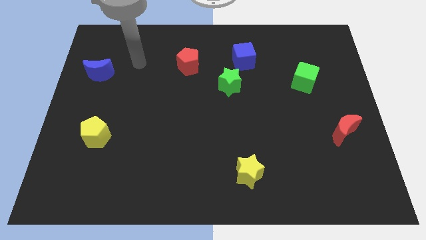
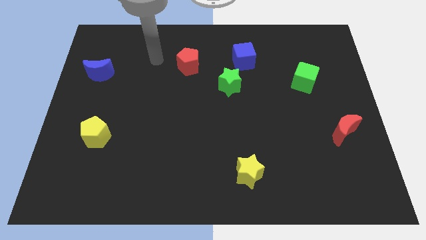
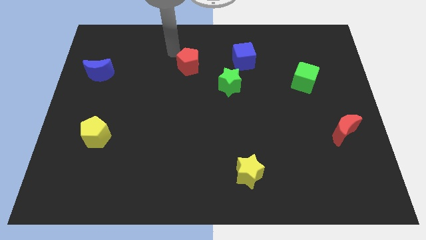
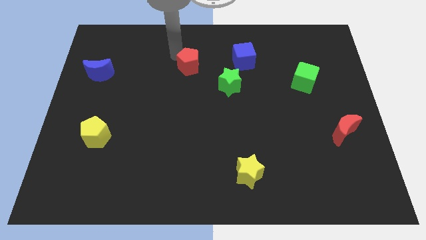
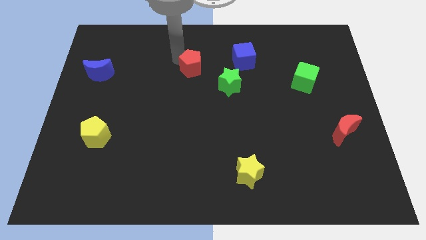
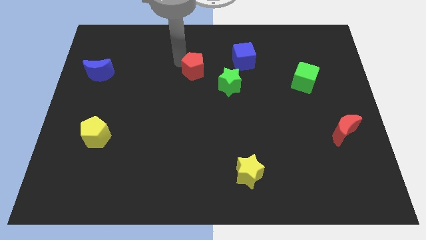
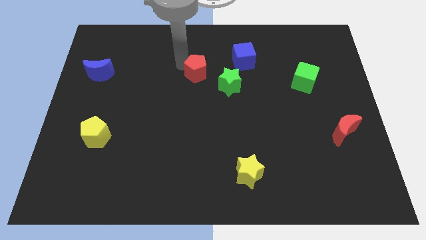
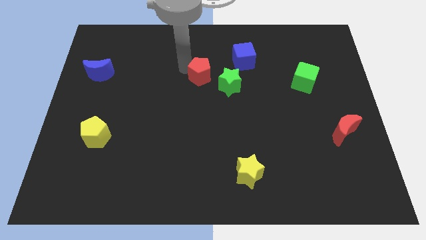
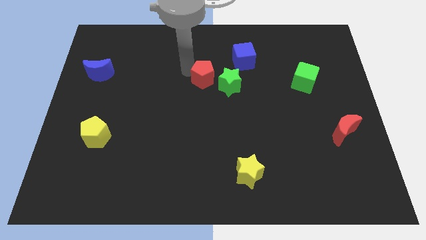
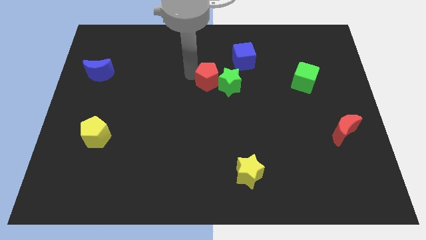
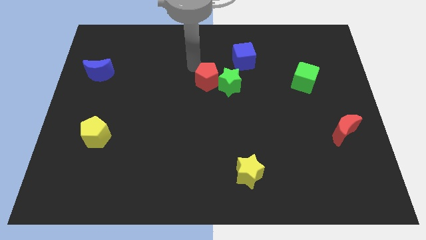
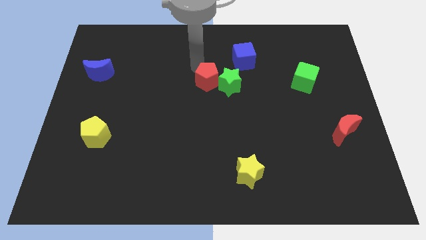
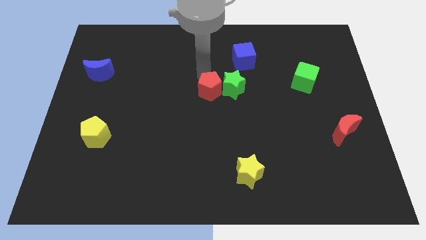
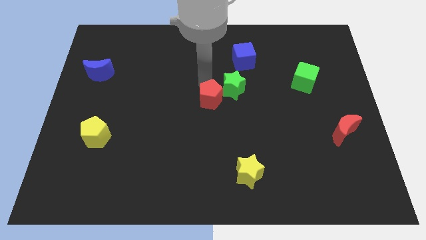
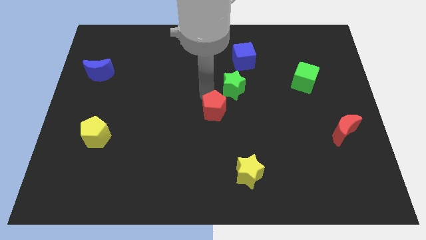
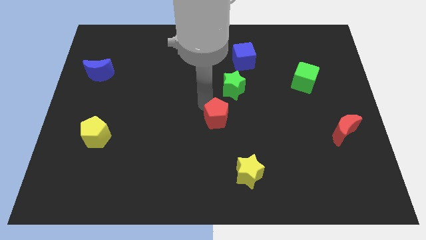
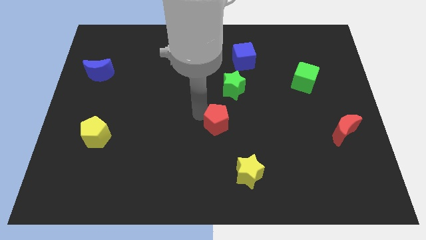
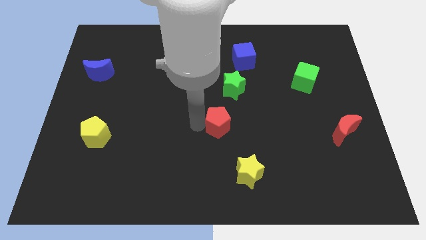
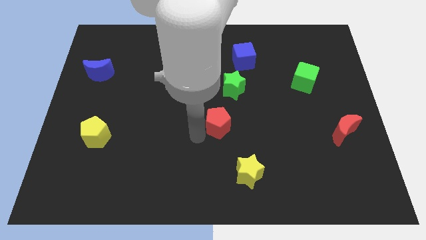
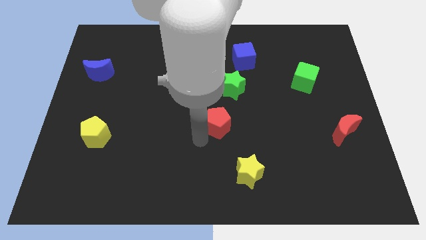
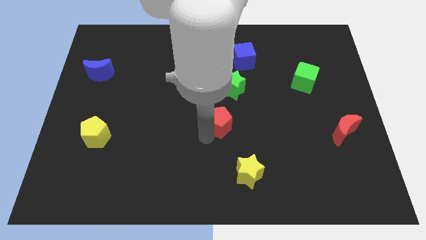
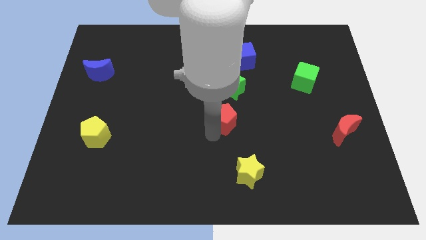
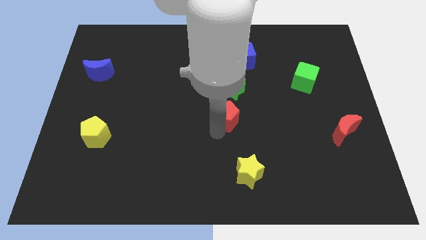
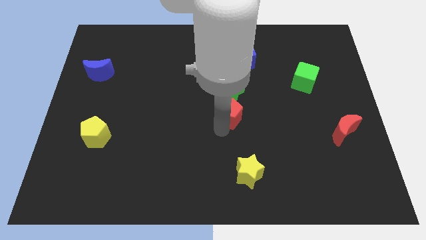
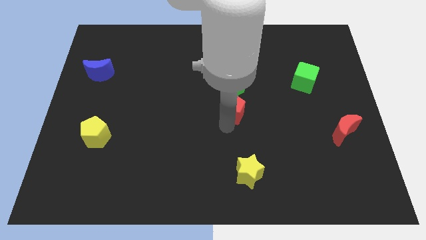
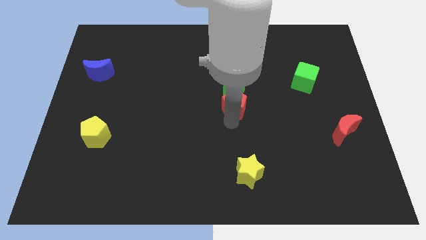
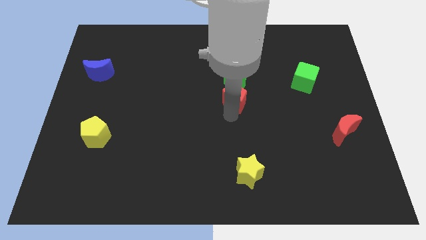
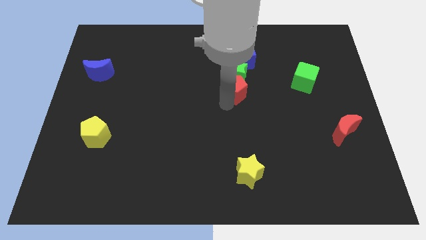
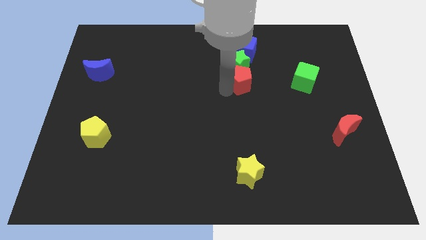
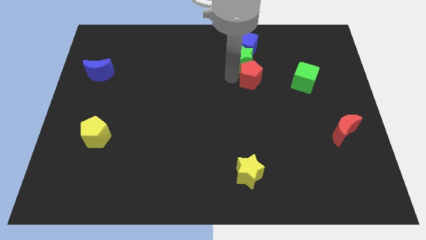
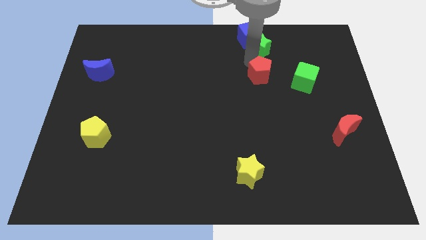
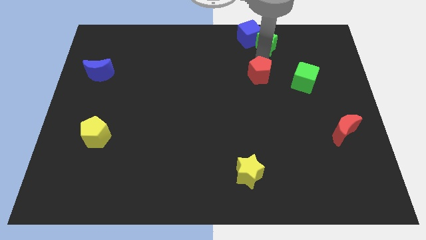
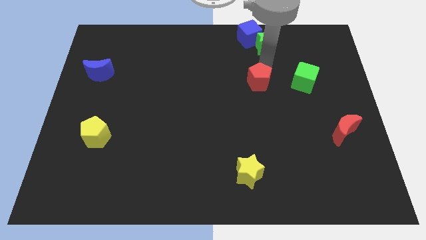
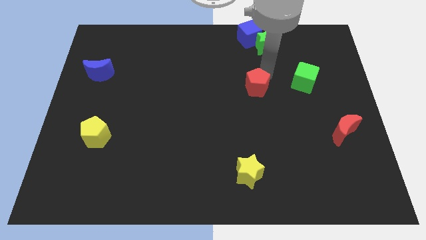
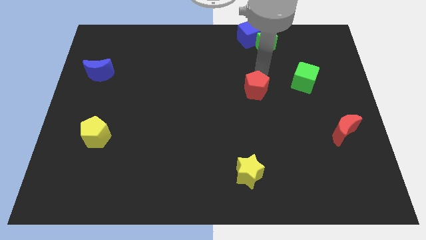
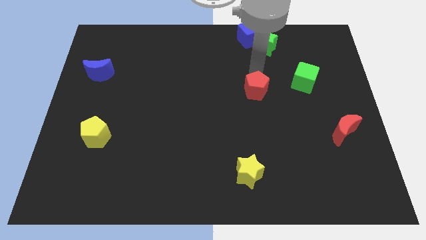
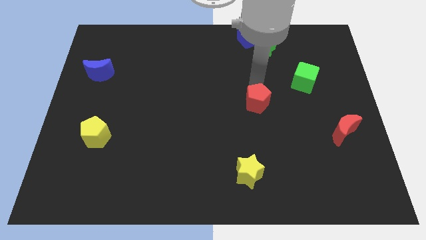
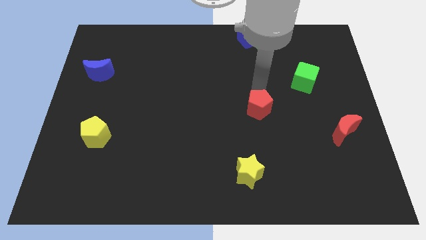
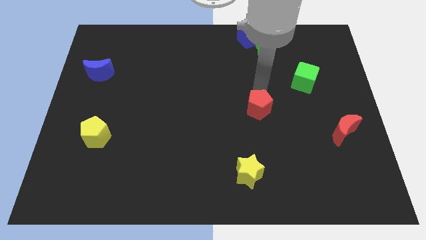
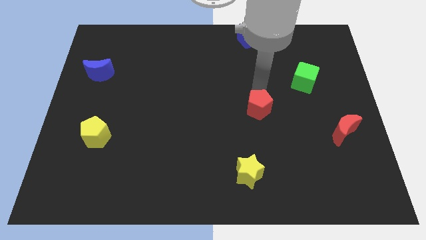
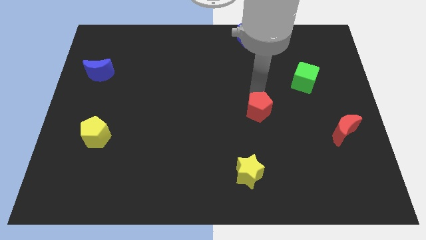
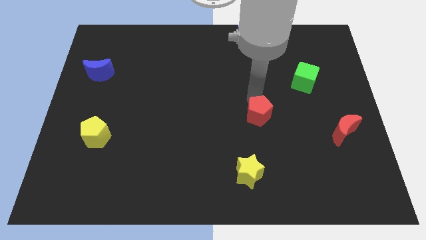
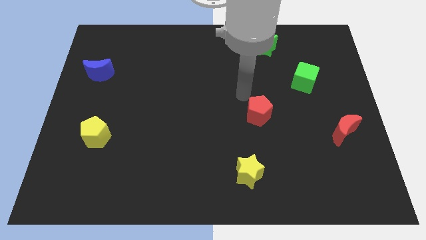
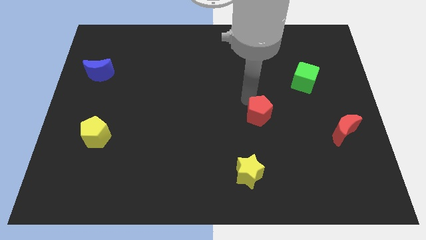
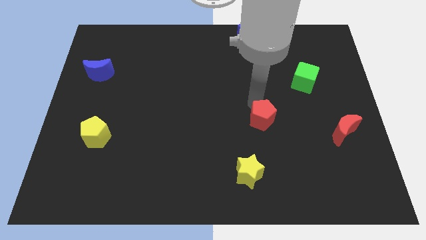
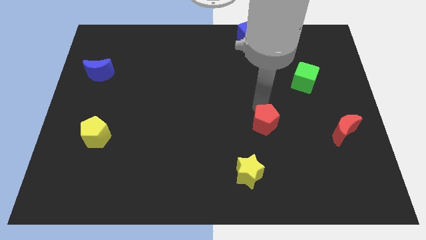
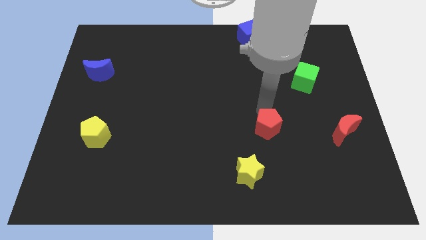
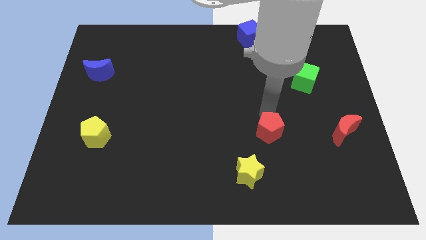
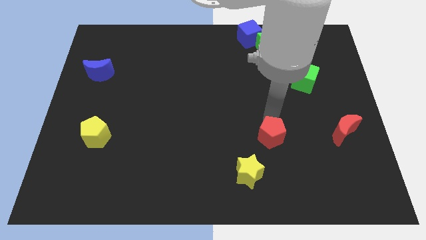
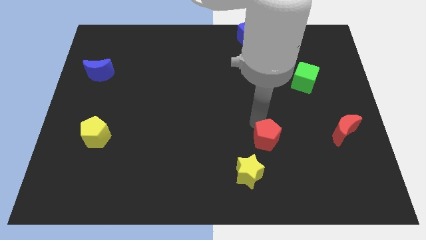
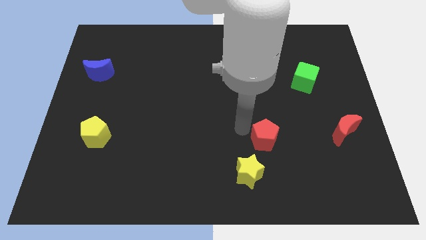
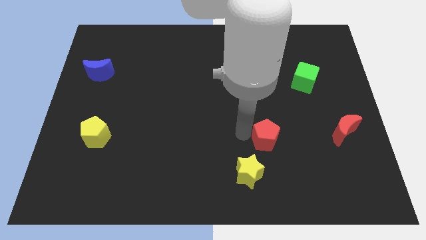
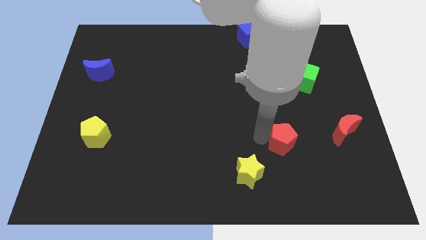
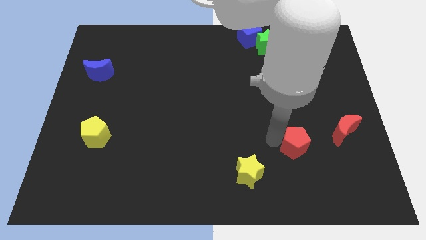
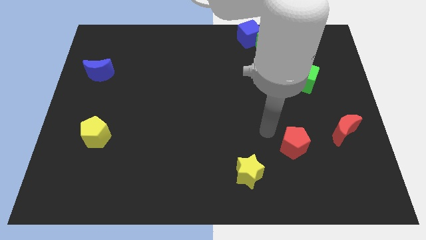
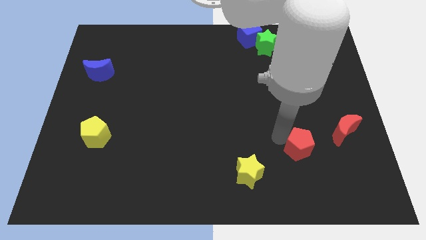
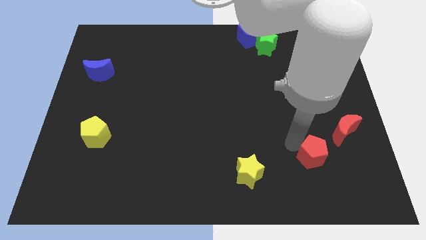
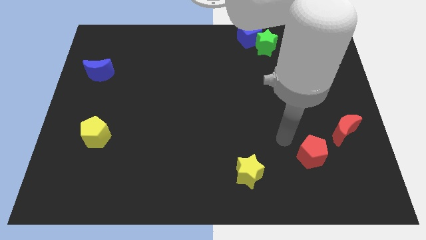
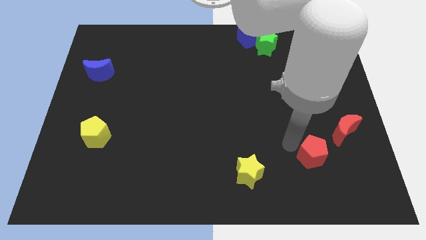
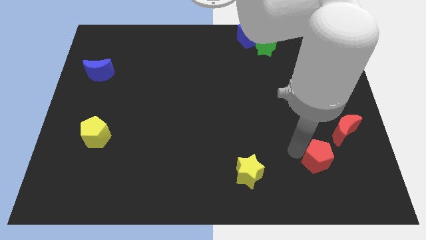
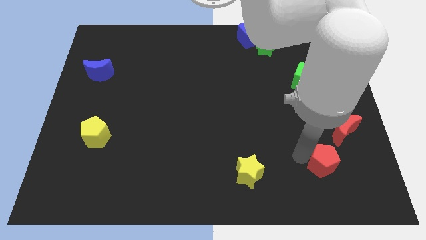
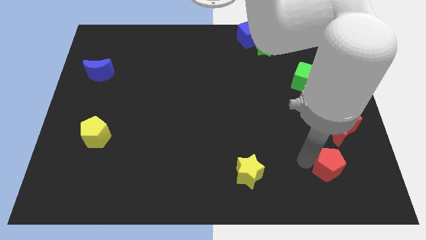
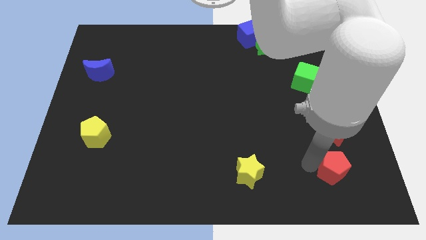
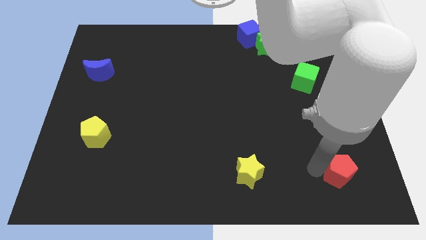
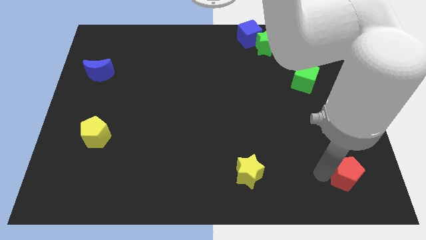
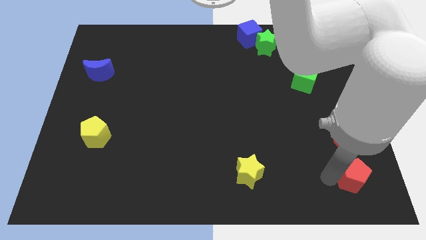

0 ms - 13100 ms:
move the red pentagon to the bottom right of the board
